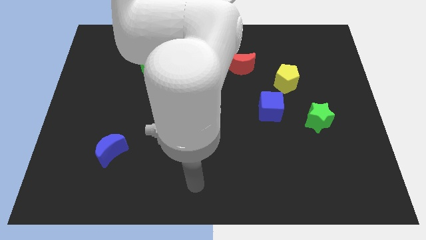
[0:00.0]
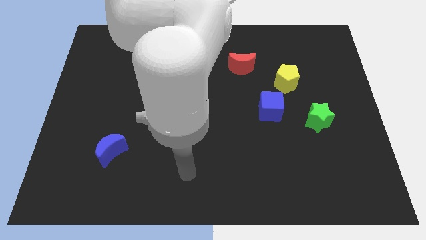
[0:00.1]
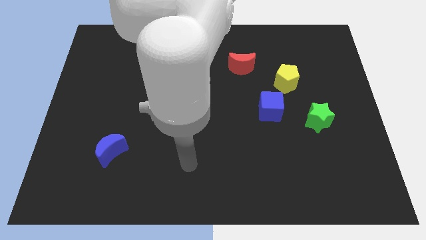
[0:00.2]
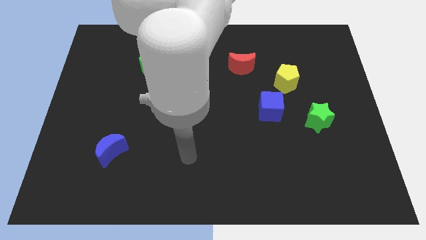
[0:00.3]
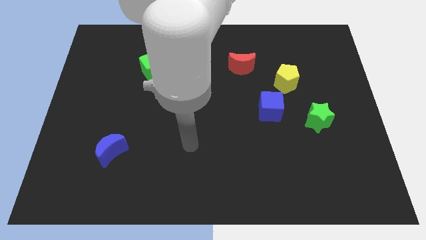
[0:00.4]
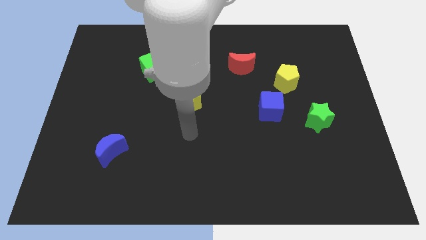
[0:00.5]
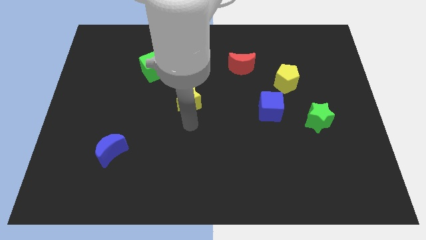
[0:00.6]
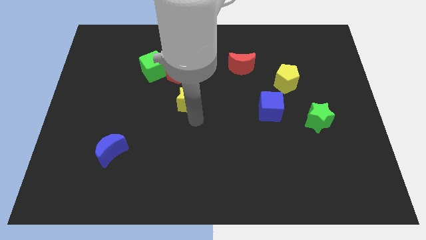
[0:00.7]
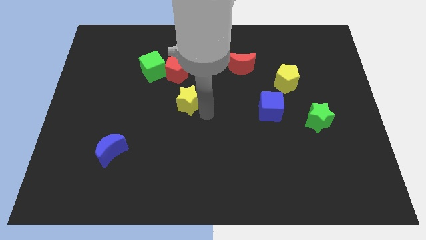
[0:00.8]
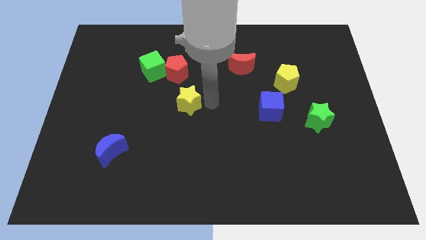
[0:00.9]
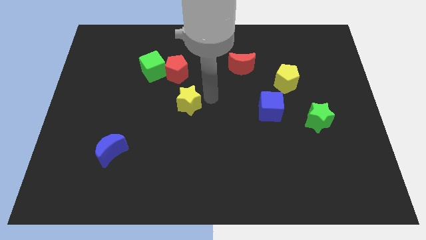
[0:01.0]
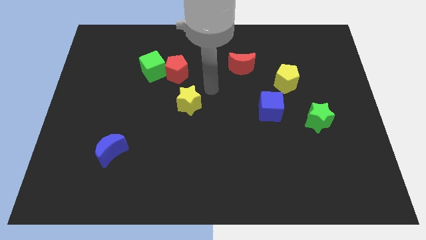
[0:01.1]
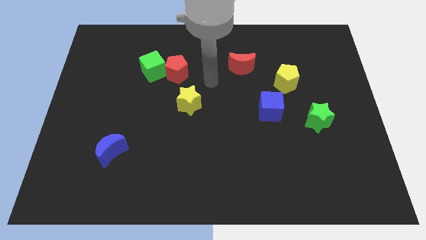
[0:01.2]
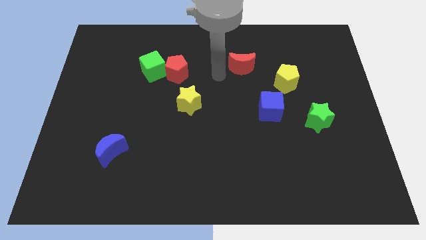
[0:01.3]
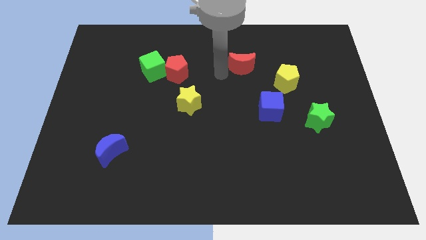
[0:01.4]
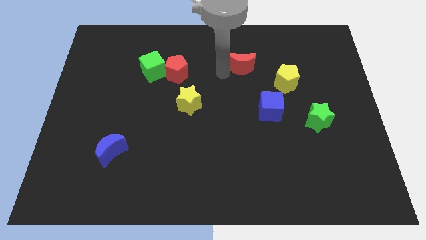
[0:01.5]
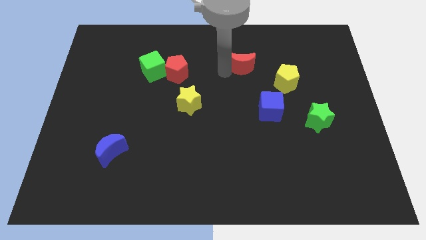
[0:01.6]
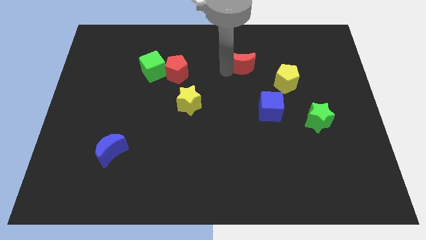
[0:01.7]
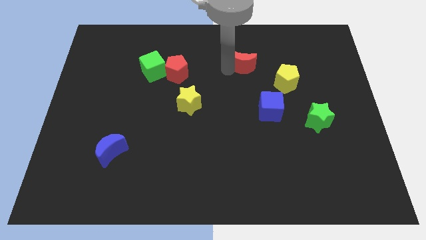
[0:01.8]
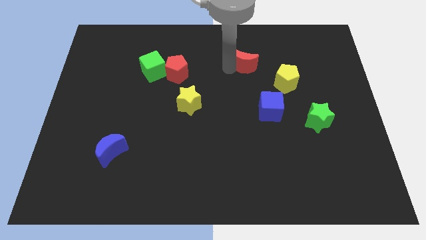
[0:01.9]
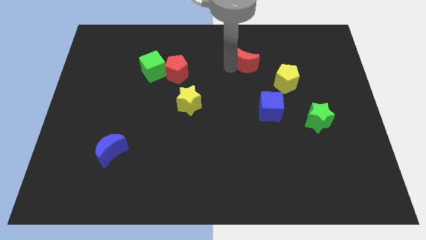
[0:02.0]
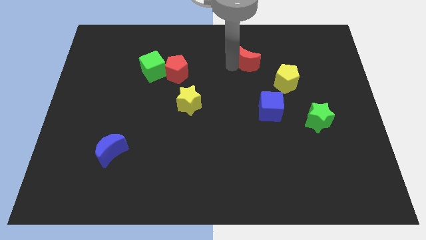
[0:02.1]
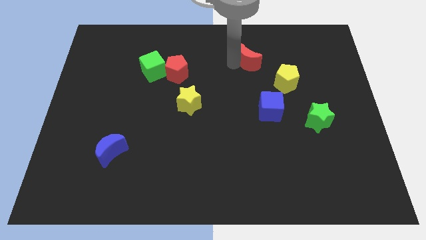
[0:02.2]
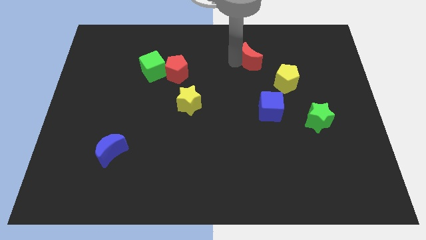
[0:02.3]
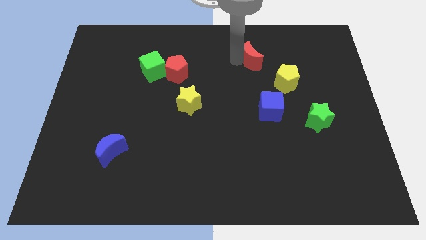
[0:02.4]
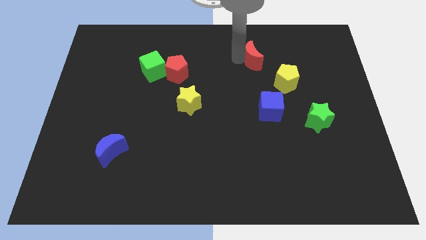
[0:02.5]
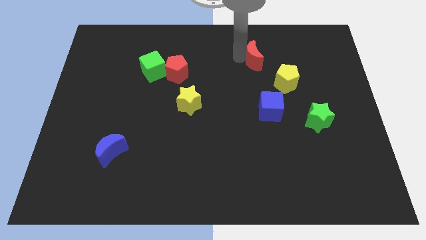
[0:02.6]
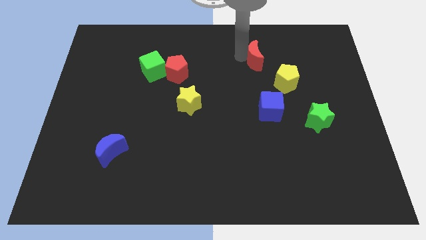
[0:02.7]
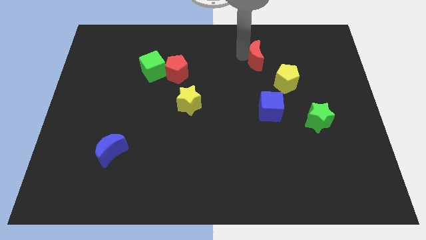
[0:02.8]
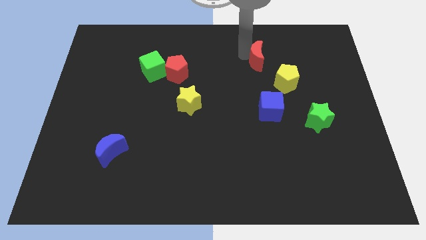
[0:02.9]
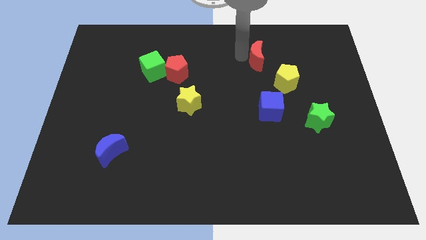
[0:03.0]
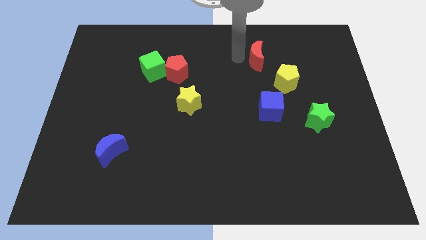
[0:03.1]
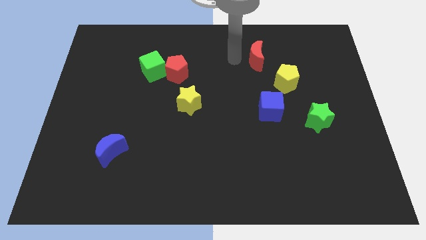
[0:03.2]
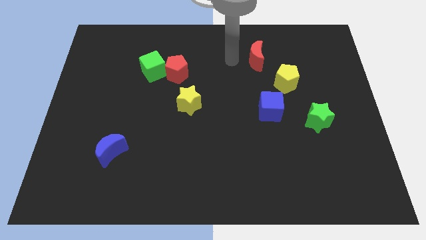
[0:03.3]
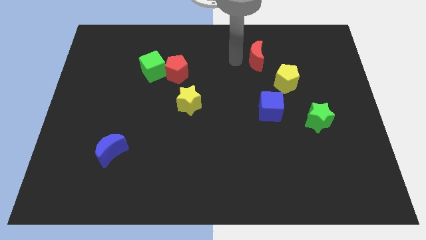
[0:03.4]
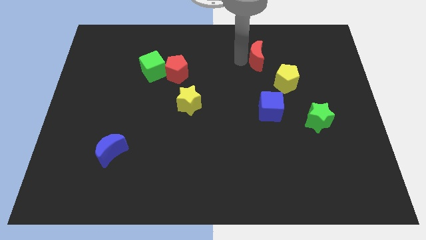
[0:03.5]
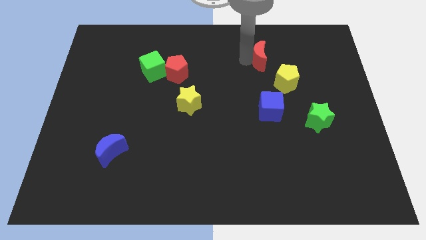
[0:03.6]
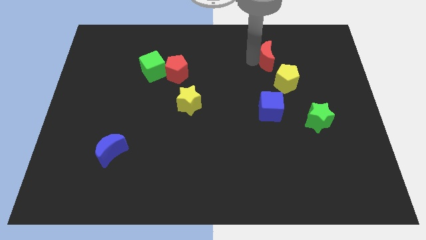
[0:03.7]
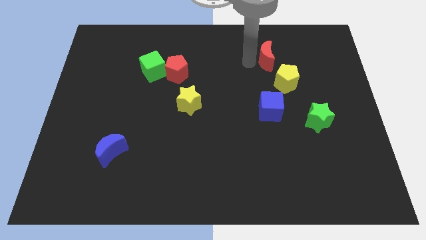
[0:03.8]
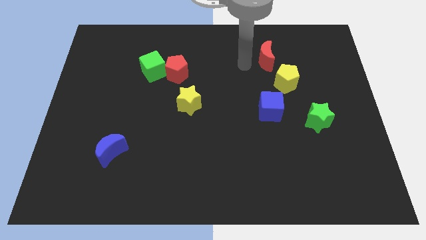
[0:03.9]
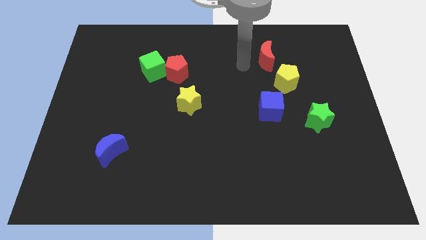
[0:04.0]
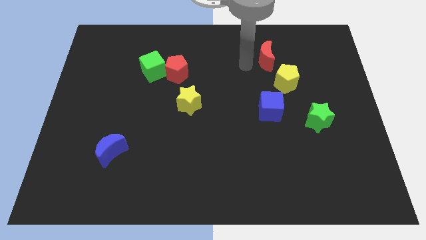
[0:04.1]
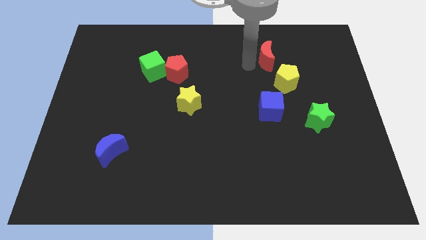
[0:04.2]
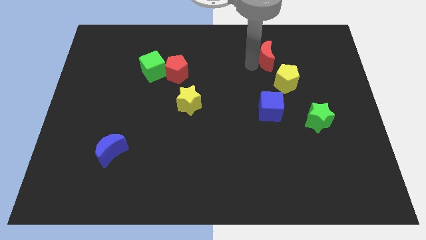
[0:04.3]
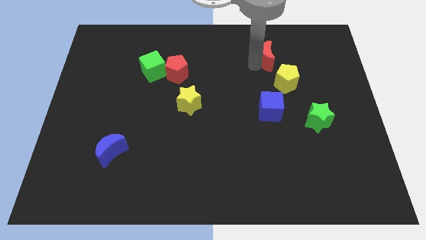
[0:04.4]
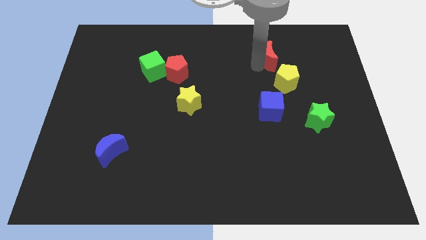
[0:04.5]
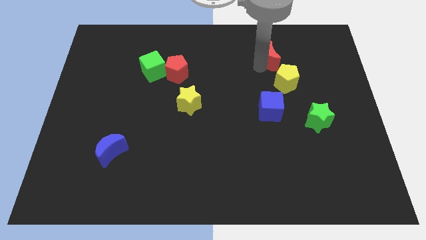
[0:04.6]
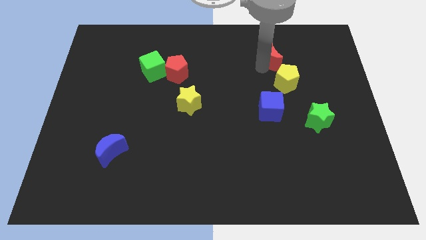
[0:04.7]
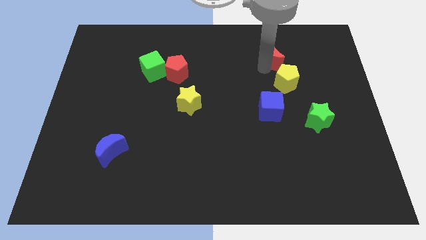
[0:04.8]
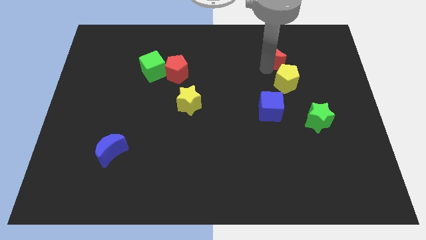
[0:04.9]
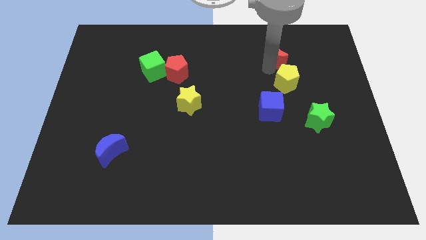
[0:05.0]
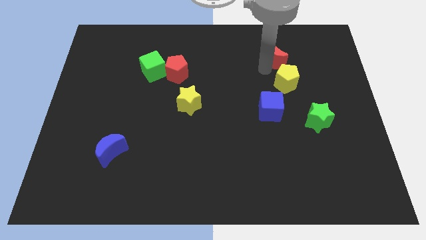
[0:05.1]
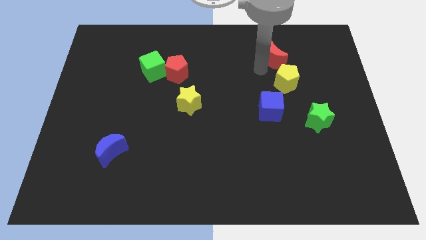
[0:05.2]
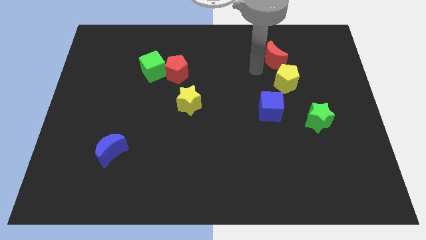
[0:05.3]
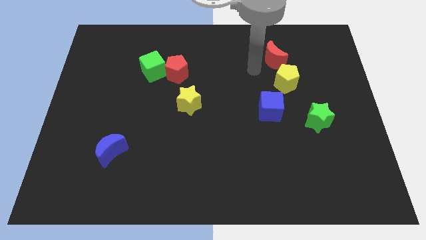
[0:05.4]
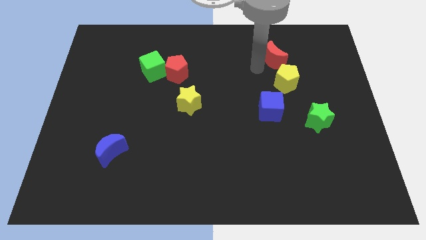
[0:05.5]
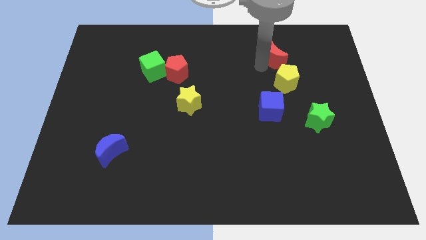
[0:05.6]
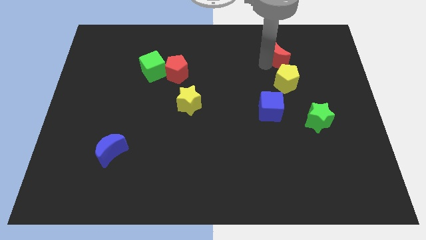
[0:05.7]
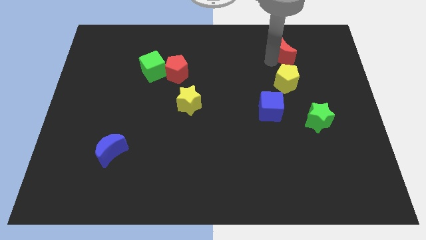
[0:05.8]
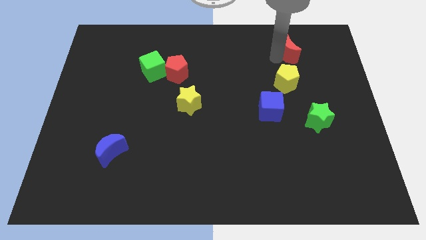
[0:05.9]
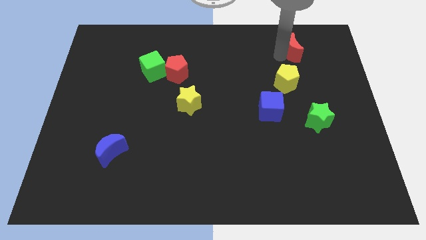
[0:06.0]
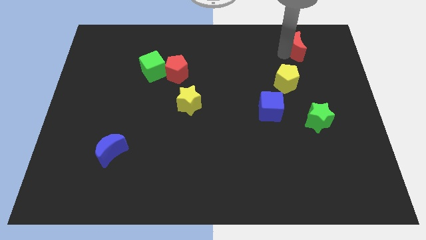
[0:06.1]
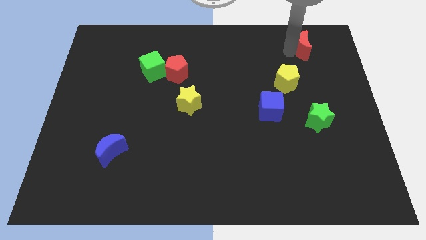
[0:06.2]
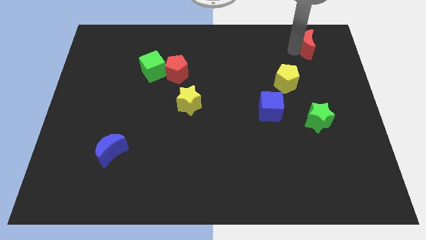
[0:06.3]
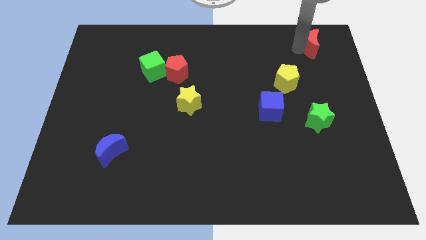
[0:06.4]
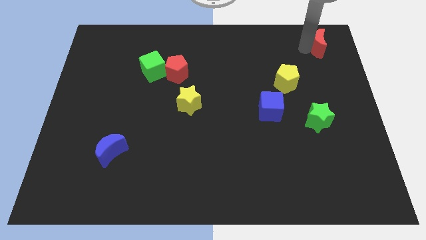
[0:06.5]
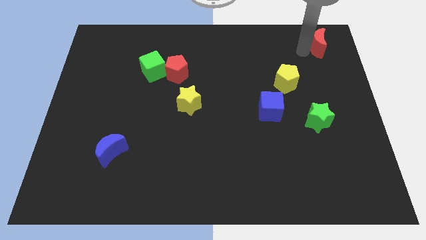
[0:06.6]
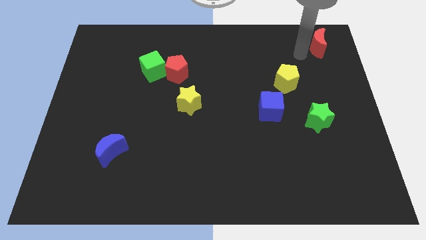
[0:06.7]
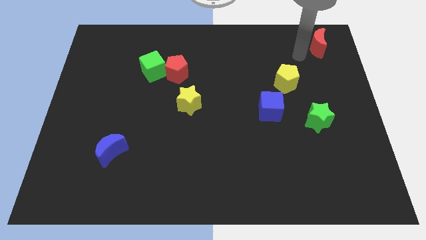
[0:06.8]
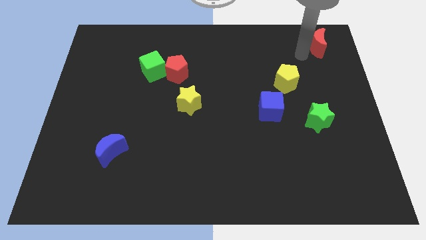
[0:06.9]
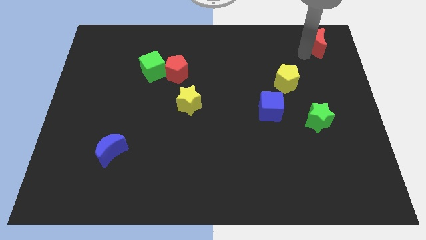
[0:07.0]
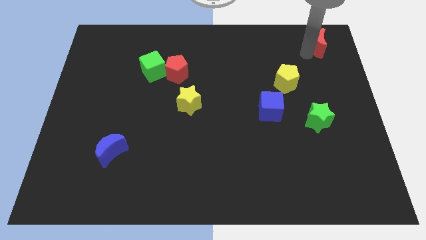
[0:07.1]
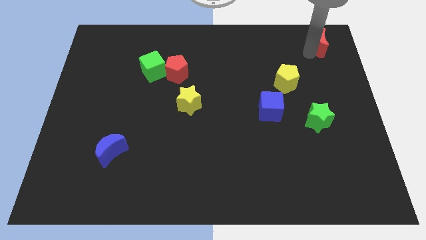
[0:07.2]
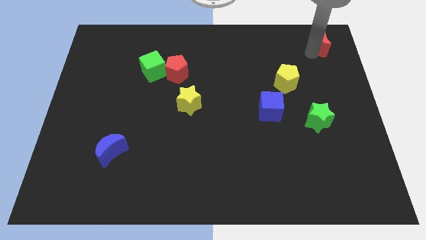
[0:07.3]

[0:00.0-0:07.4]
move the red moon to the top right
